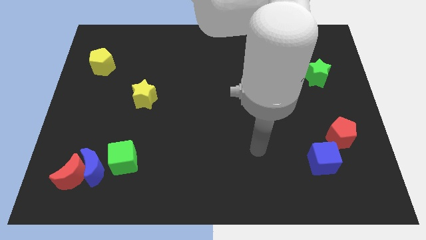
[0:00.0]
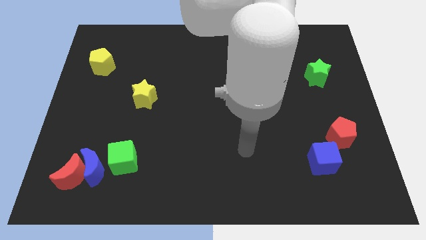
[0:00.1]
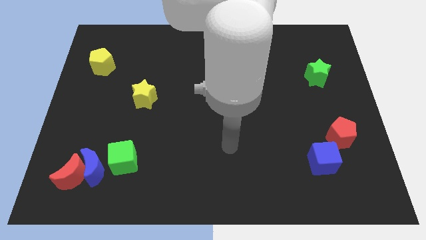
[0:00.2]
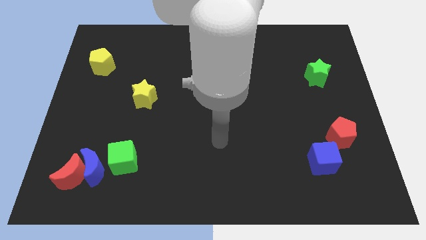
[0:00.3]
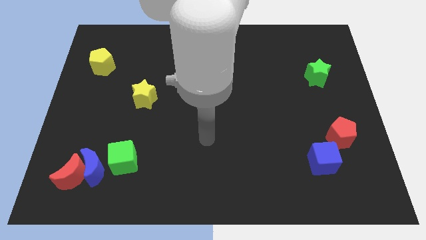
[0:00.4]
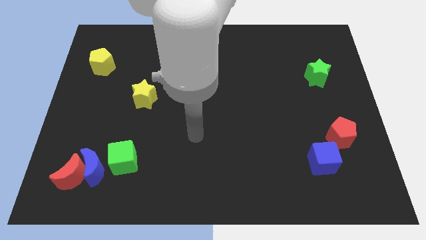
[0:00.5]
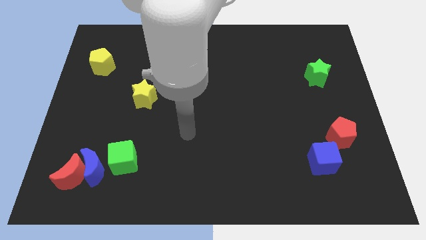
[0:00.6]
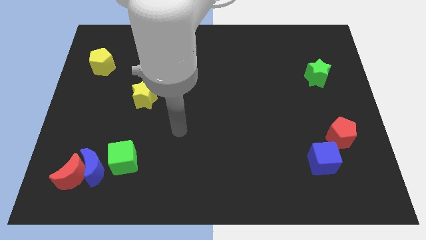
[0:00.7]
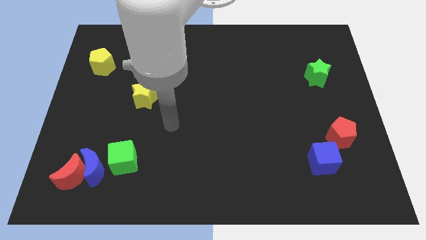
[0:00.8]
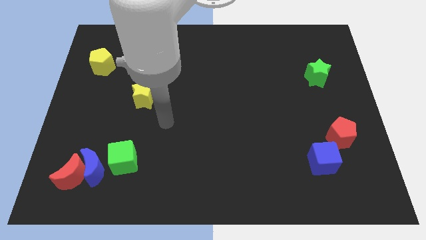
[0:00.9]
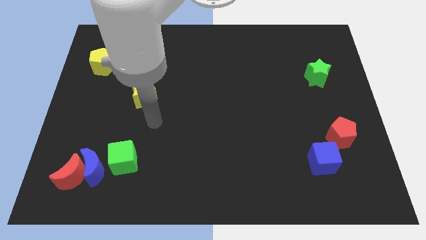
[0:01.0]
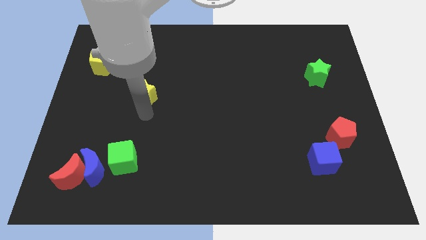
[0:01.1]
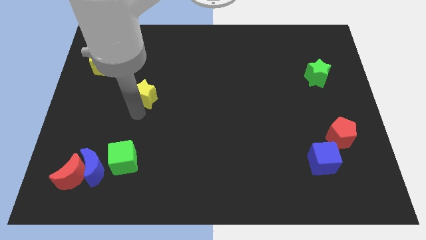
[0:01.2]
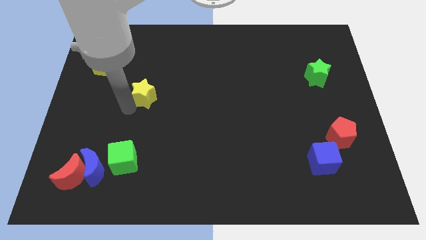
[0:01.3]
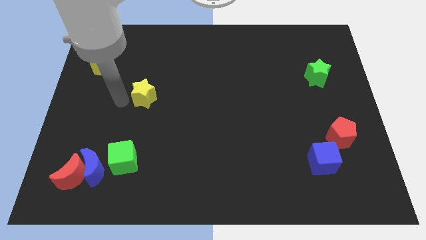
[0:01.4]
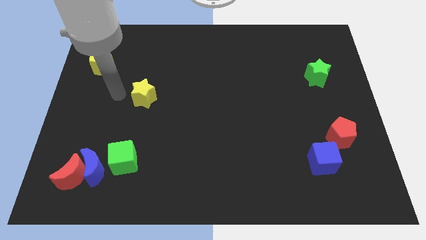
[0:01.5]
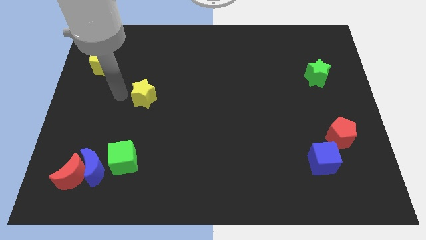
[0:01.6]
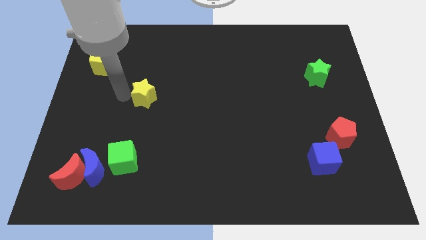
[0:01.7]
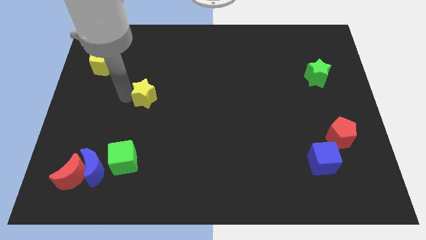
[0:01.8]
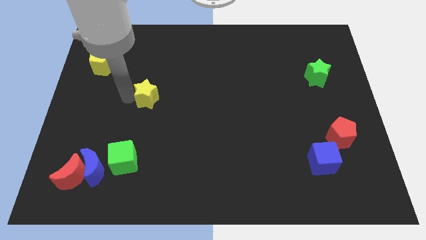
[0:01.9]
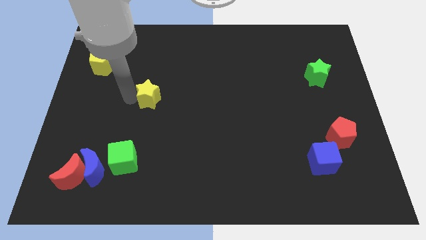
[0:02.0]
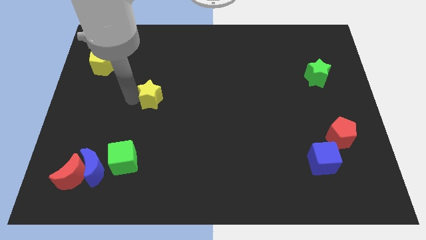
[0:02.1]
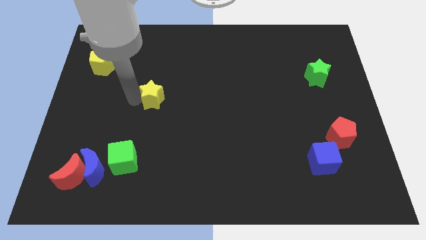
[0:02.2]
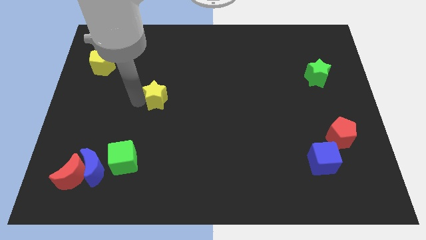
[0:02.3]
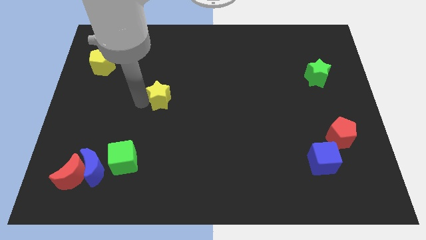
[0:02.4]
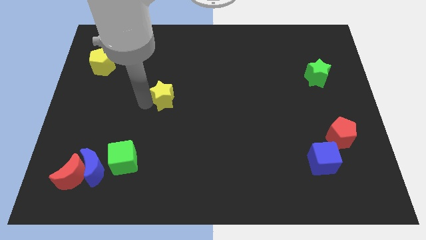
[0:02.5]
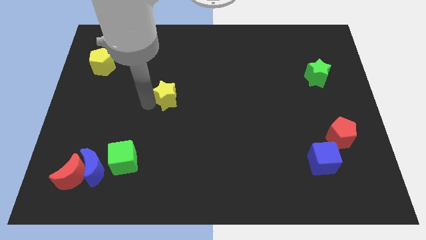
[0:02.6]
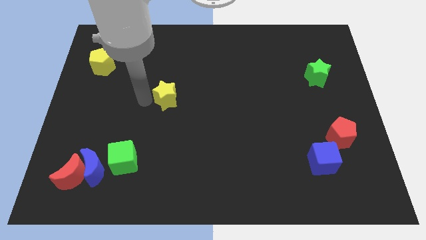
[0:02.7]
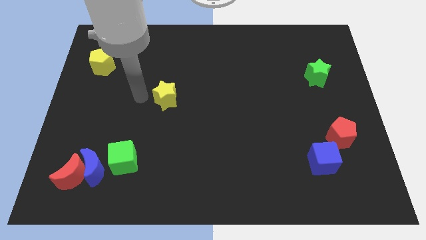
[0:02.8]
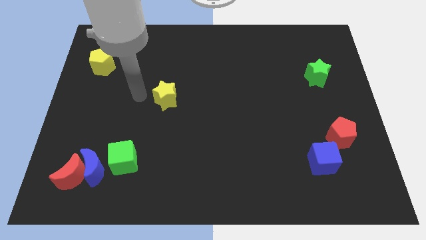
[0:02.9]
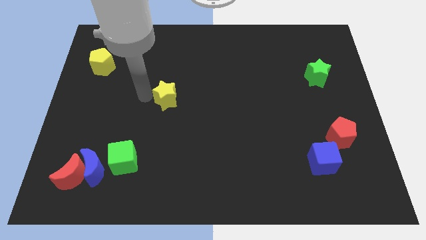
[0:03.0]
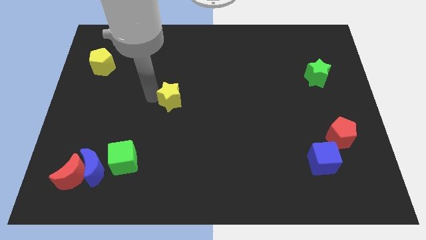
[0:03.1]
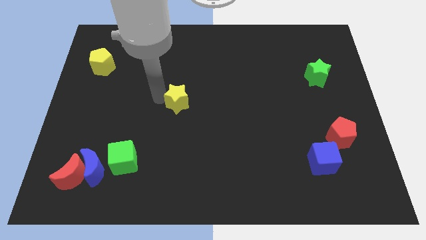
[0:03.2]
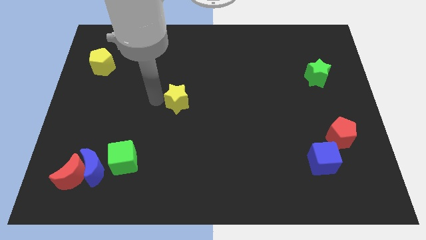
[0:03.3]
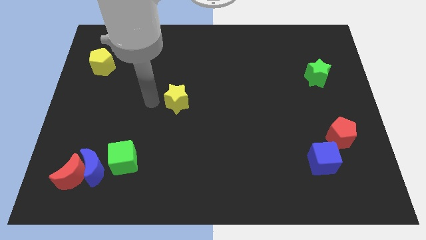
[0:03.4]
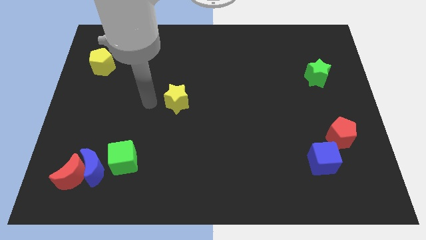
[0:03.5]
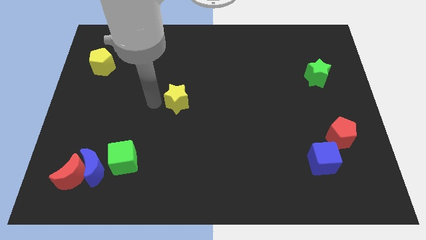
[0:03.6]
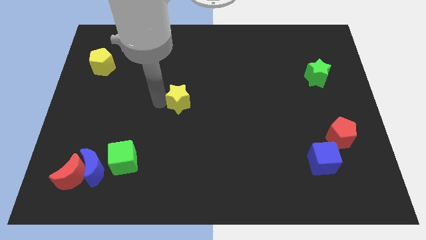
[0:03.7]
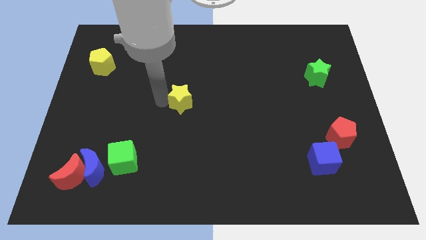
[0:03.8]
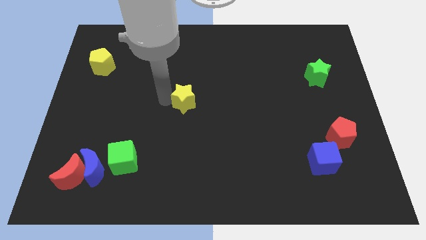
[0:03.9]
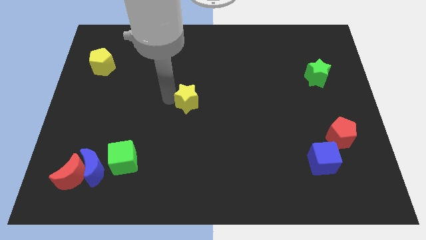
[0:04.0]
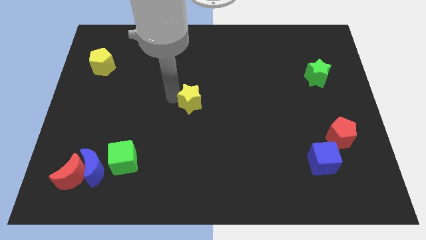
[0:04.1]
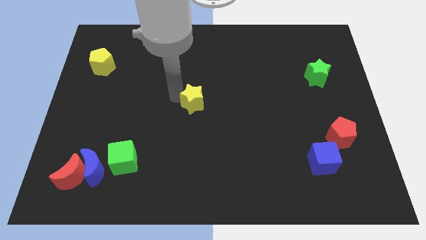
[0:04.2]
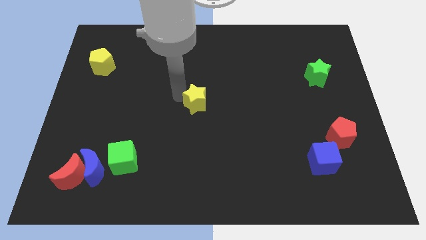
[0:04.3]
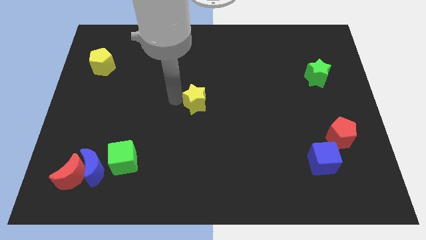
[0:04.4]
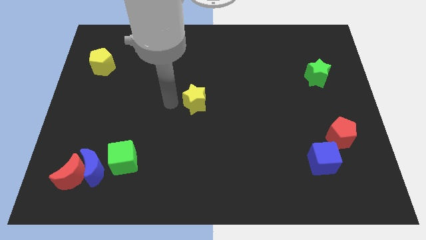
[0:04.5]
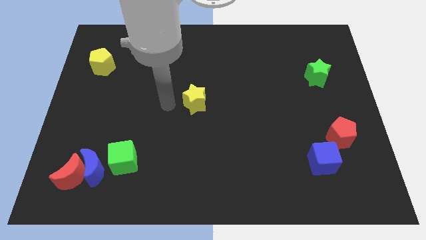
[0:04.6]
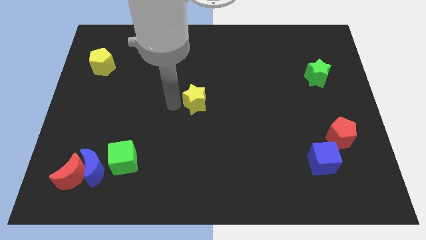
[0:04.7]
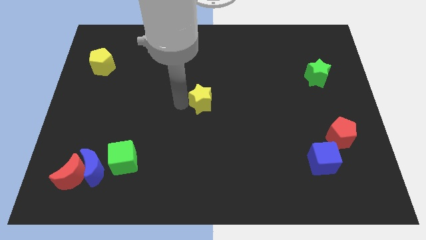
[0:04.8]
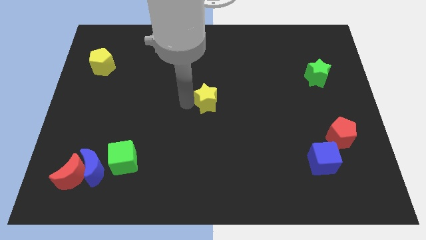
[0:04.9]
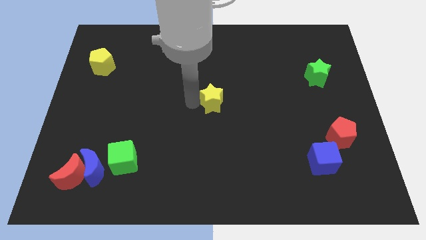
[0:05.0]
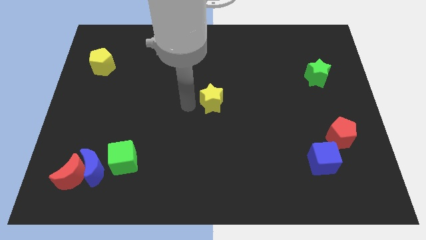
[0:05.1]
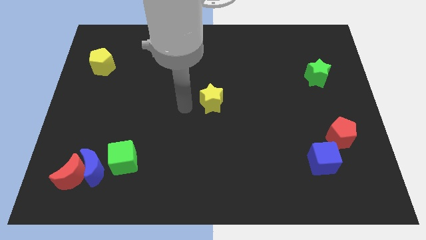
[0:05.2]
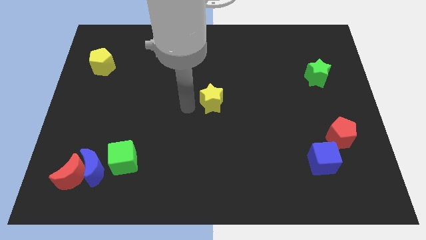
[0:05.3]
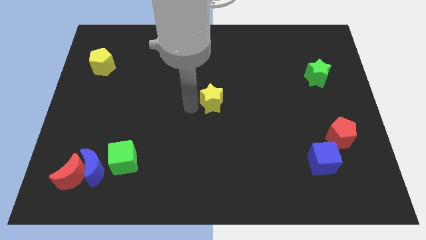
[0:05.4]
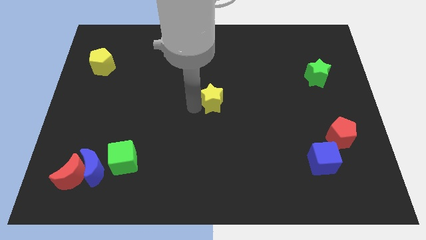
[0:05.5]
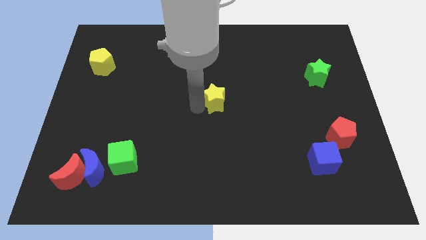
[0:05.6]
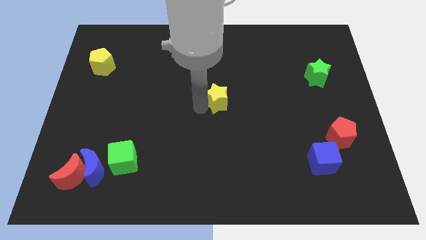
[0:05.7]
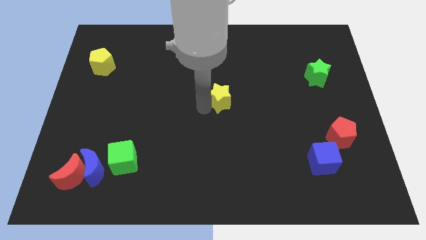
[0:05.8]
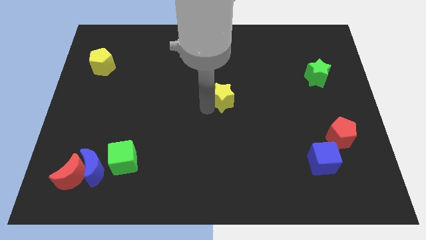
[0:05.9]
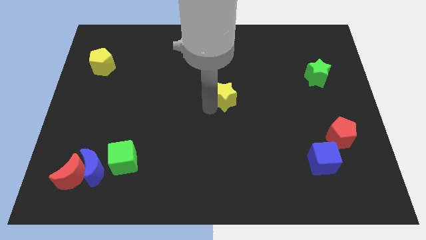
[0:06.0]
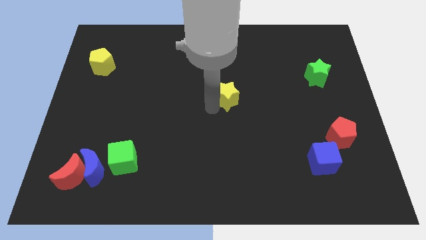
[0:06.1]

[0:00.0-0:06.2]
push the yellow star to the right

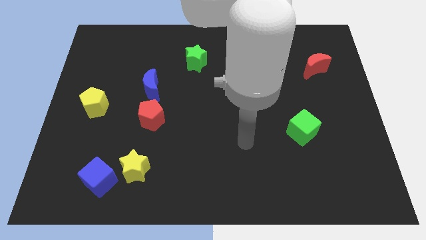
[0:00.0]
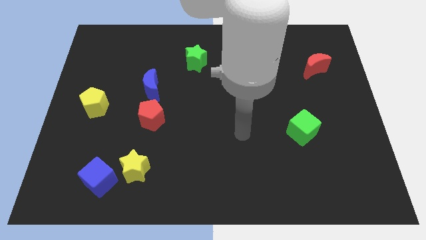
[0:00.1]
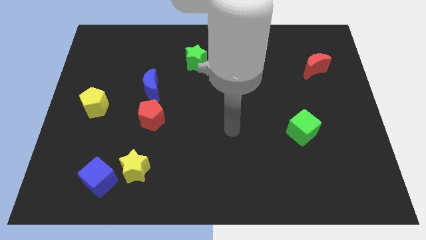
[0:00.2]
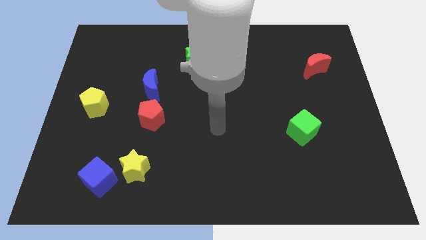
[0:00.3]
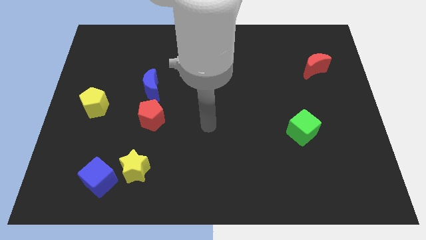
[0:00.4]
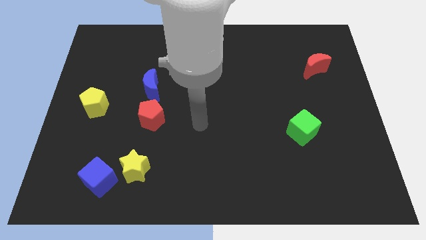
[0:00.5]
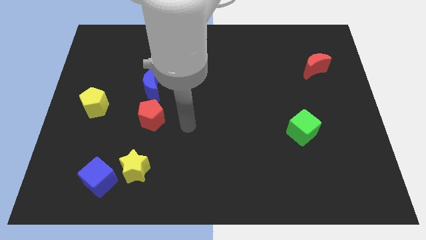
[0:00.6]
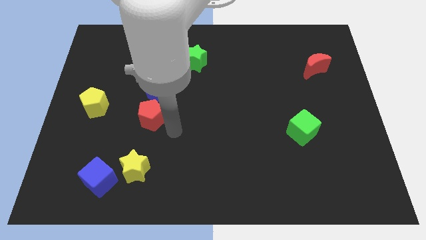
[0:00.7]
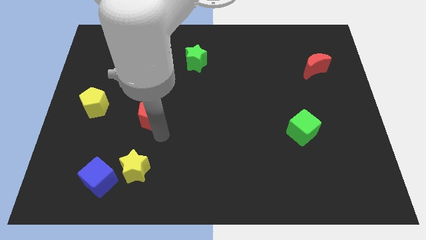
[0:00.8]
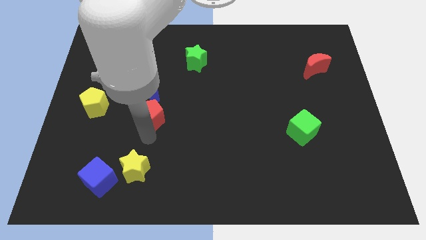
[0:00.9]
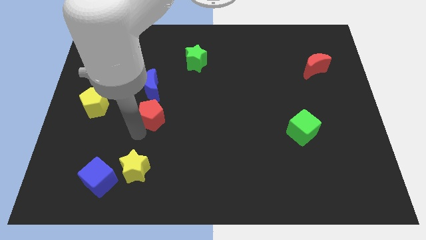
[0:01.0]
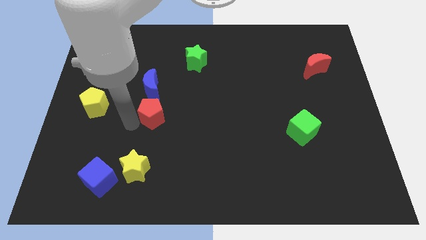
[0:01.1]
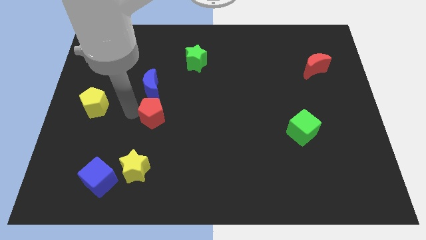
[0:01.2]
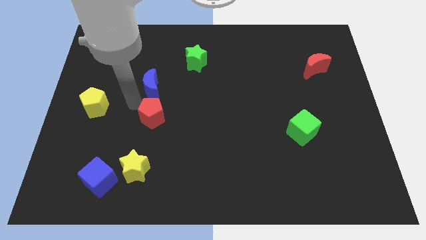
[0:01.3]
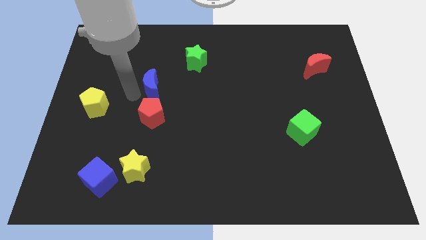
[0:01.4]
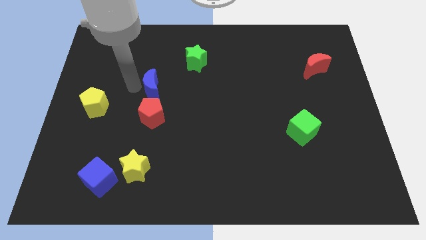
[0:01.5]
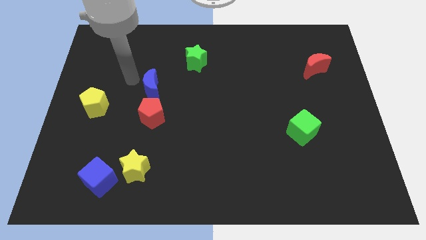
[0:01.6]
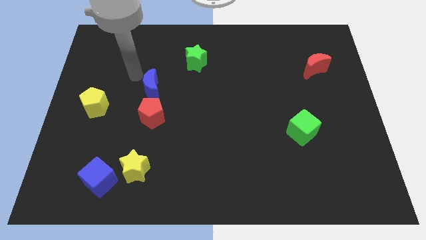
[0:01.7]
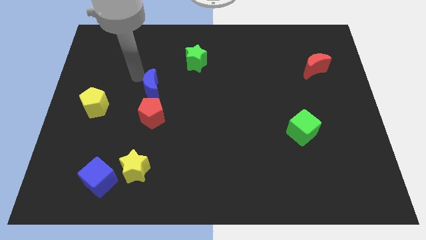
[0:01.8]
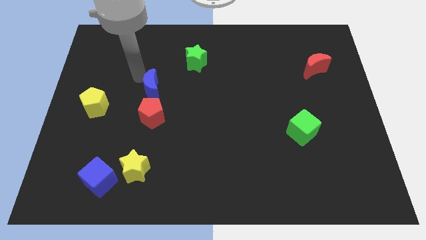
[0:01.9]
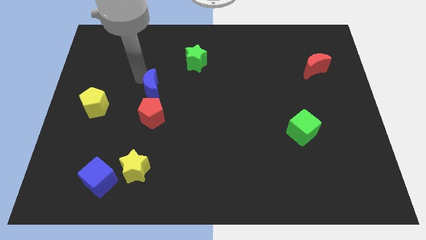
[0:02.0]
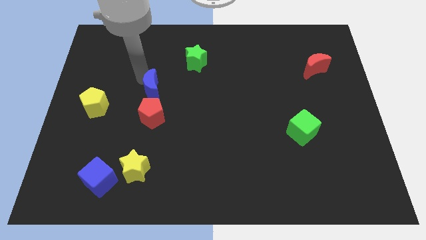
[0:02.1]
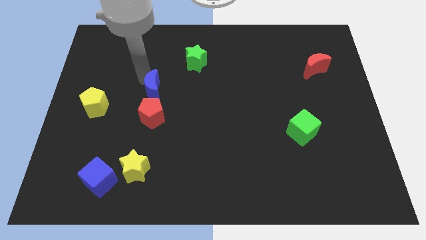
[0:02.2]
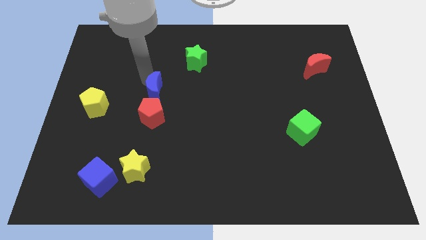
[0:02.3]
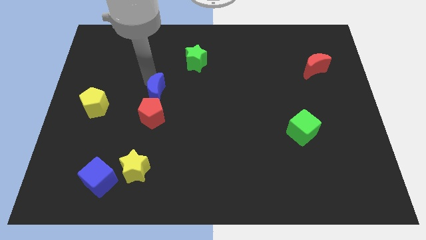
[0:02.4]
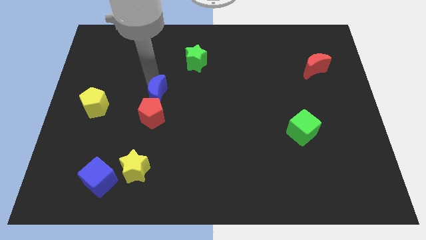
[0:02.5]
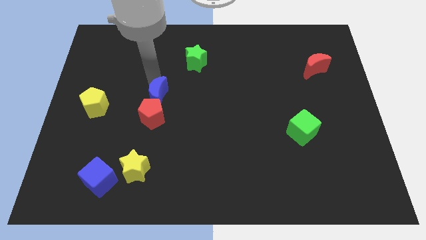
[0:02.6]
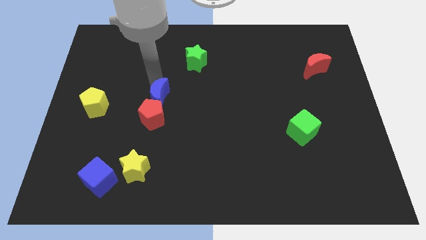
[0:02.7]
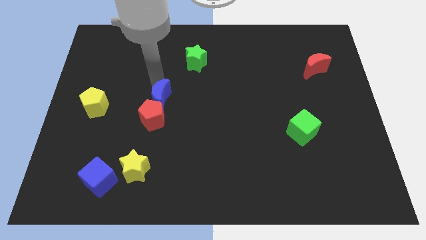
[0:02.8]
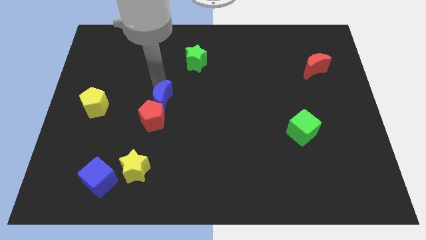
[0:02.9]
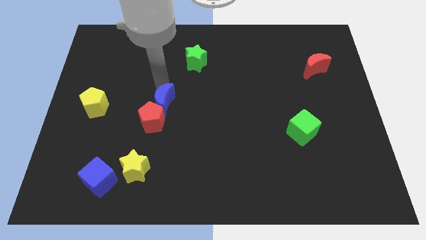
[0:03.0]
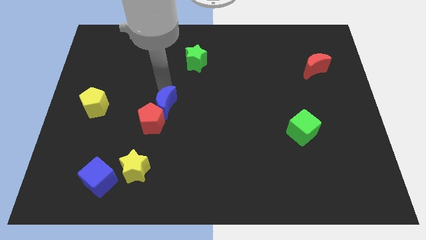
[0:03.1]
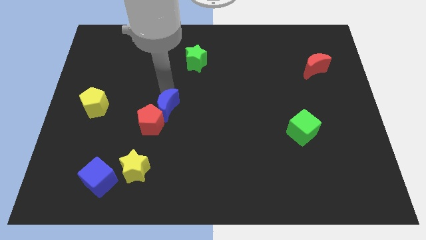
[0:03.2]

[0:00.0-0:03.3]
push the blue moon downwards and then right a little bit
